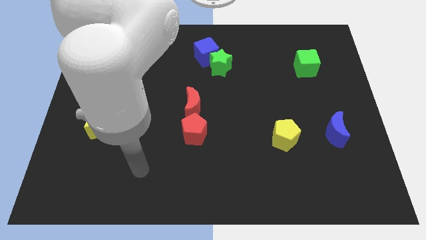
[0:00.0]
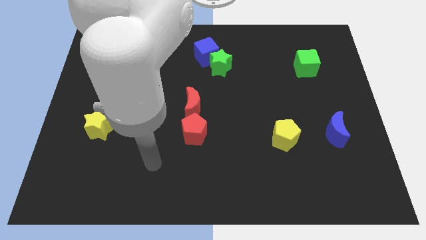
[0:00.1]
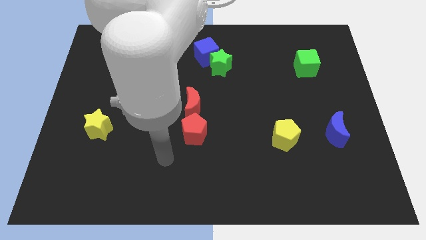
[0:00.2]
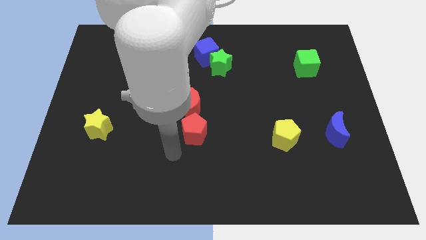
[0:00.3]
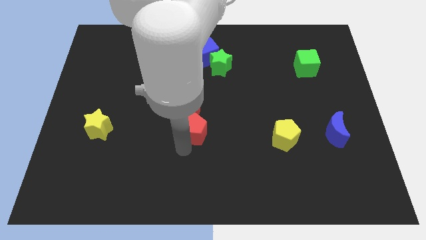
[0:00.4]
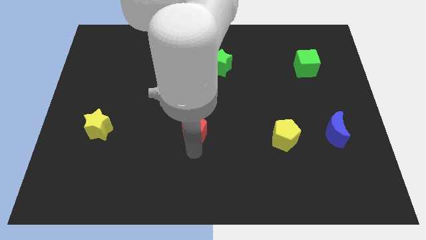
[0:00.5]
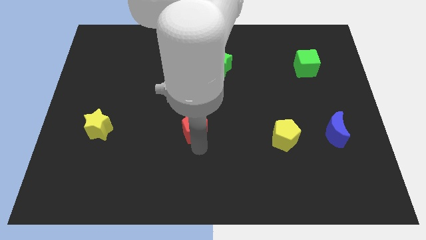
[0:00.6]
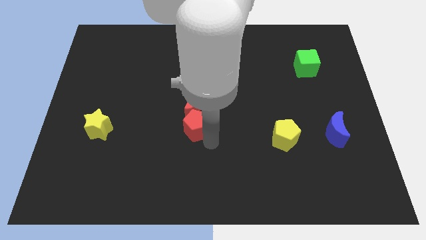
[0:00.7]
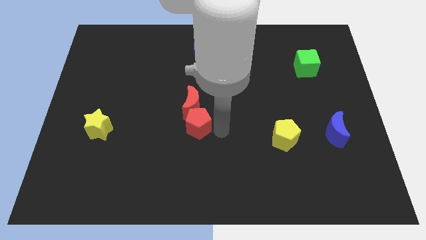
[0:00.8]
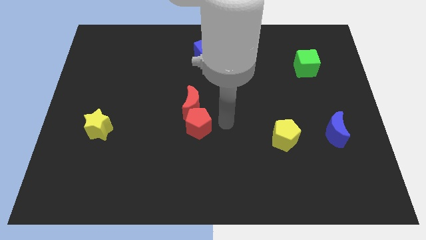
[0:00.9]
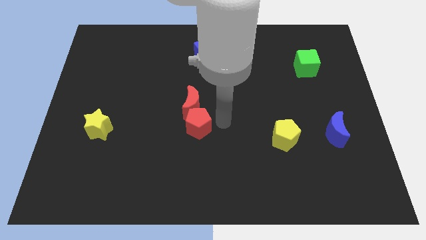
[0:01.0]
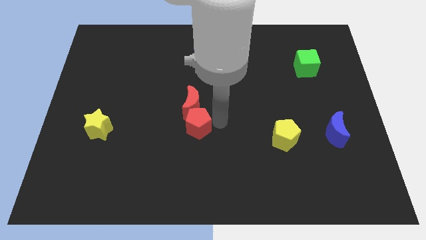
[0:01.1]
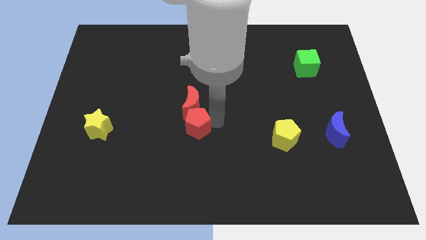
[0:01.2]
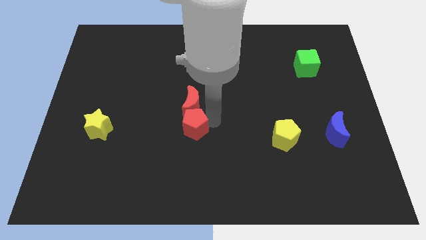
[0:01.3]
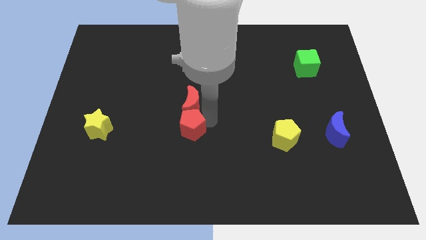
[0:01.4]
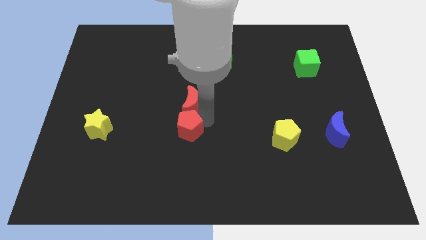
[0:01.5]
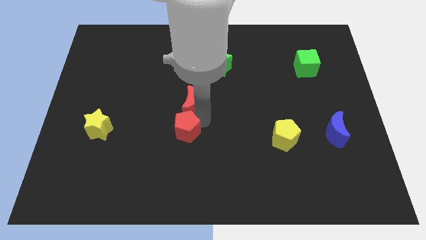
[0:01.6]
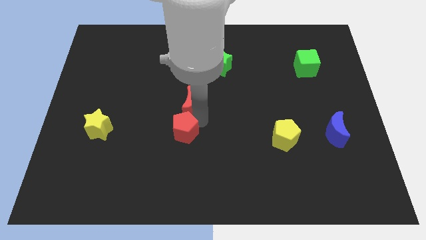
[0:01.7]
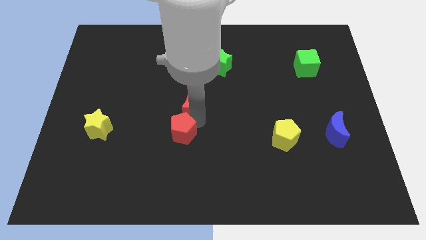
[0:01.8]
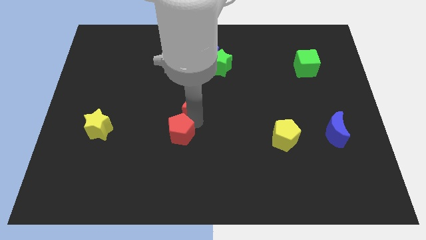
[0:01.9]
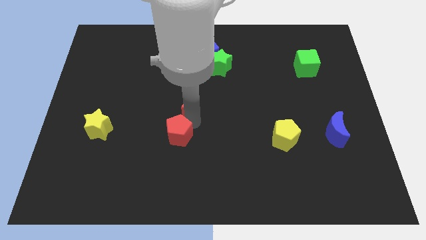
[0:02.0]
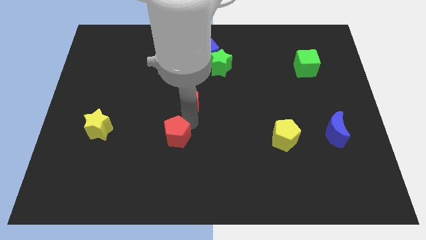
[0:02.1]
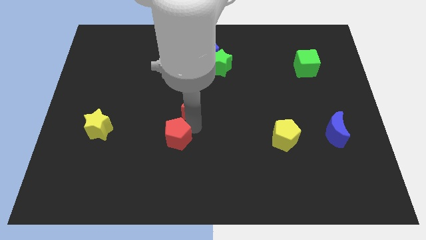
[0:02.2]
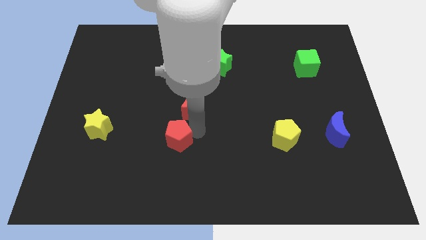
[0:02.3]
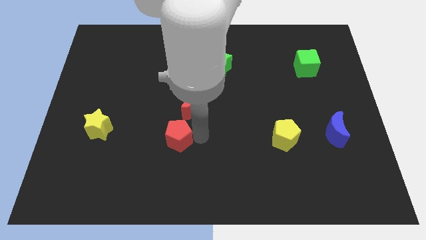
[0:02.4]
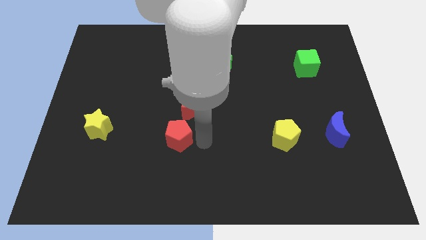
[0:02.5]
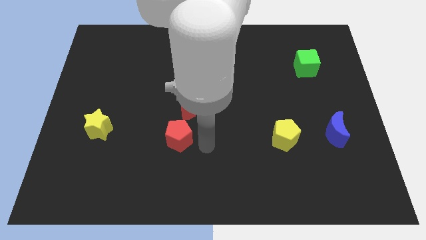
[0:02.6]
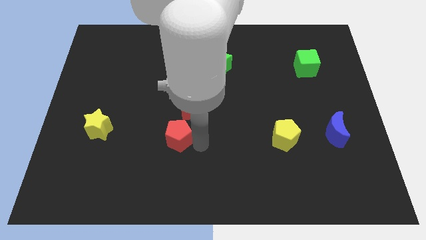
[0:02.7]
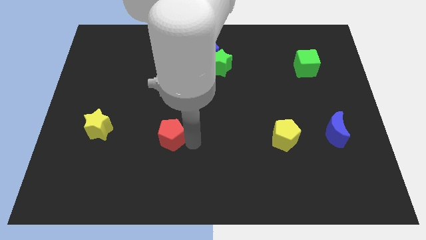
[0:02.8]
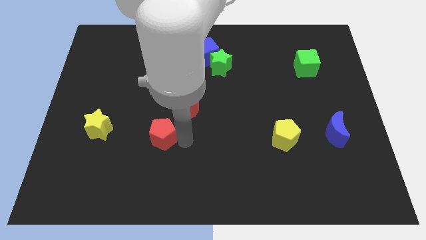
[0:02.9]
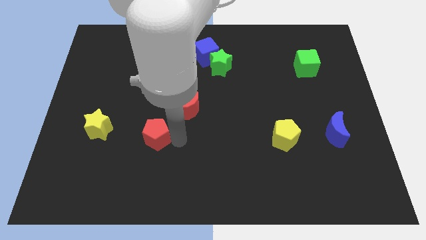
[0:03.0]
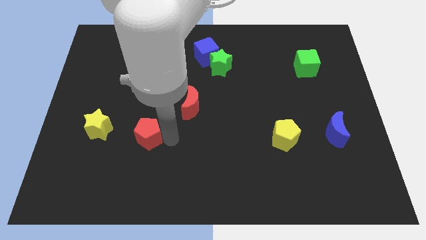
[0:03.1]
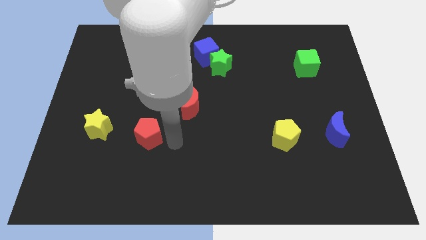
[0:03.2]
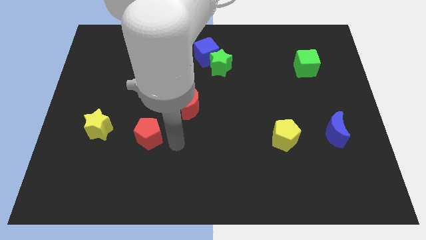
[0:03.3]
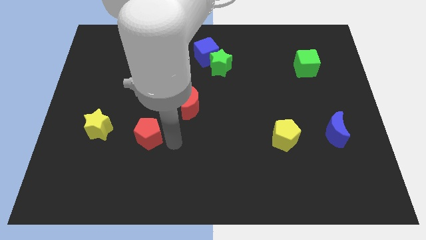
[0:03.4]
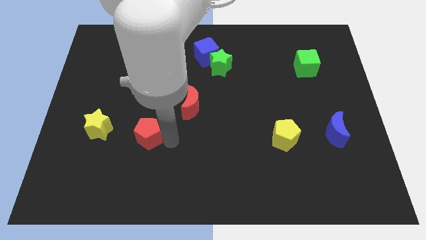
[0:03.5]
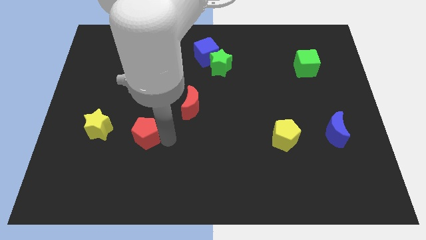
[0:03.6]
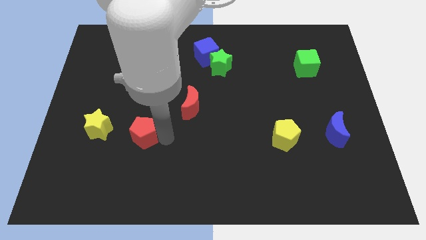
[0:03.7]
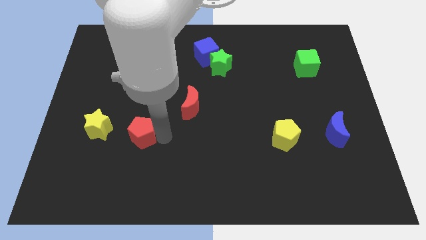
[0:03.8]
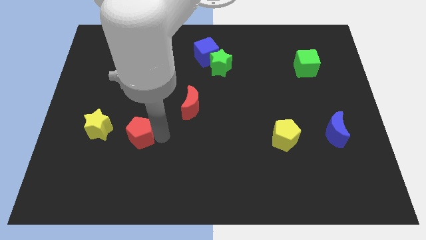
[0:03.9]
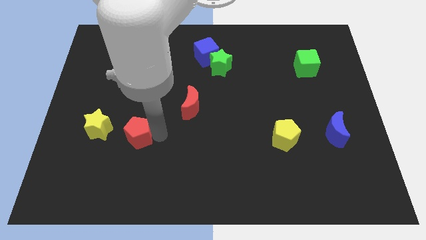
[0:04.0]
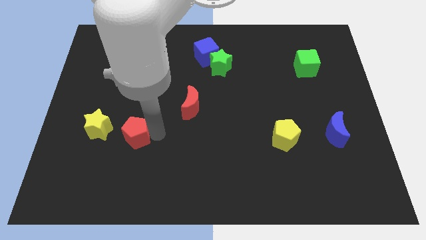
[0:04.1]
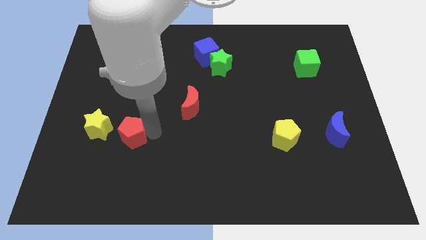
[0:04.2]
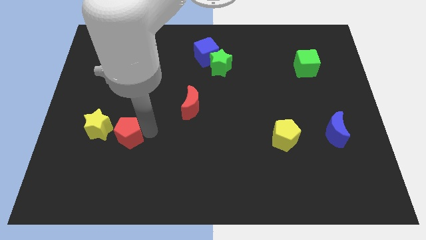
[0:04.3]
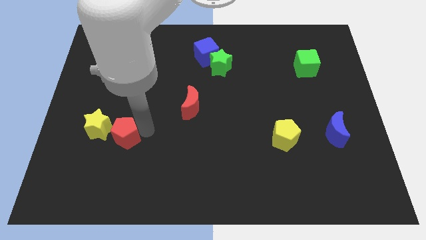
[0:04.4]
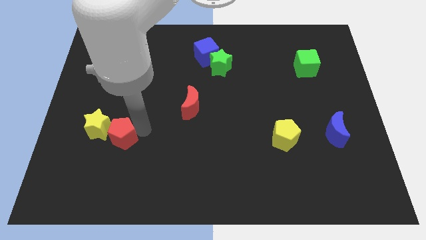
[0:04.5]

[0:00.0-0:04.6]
move the red pentagon to the yellow star

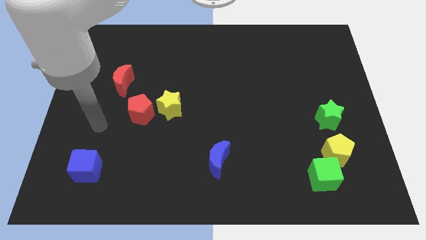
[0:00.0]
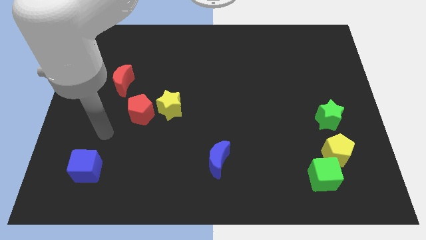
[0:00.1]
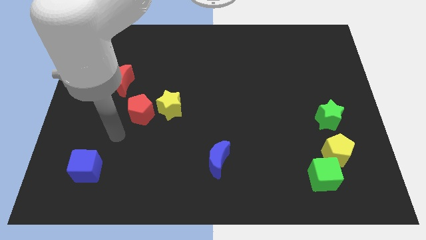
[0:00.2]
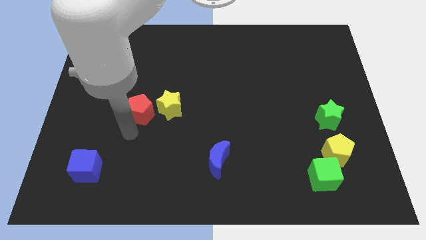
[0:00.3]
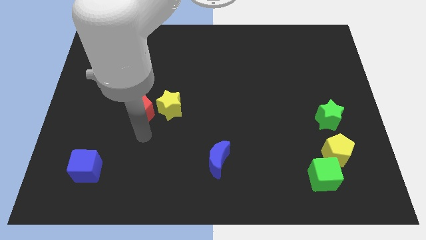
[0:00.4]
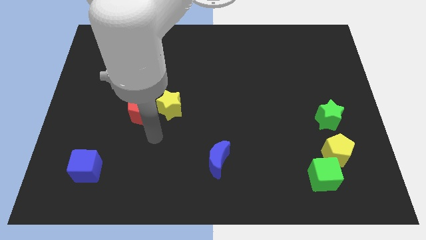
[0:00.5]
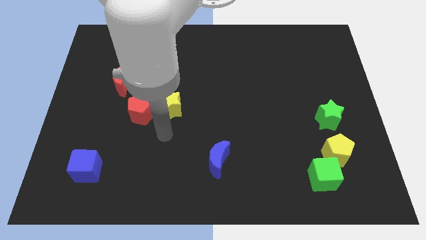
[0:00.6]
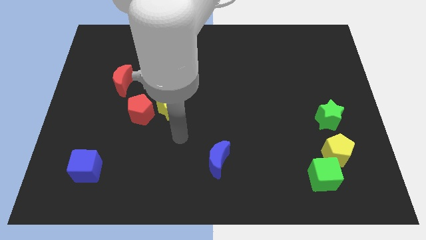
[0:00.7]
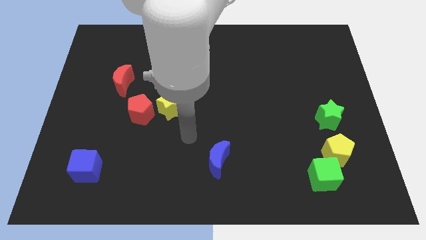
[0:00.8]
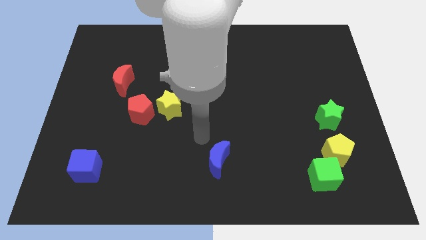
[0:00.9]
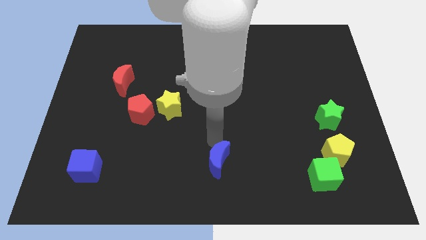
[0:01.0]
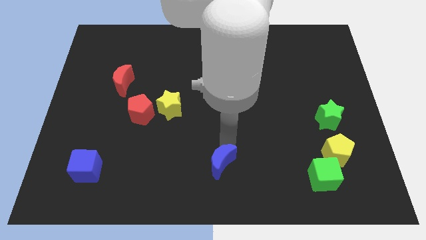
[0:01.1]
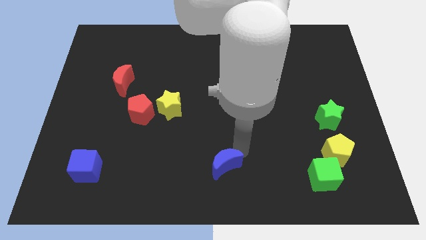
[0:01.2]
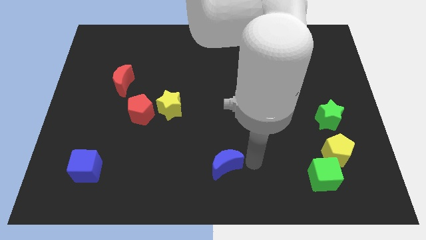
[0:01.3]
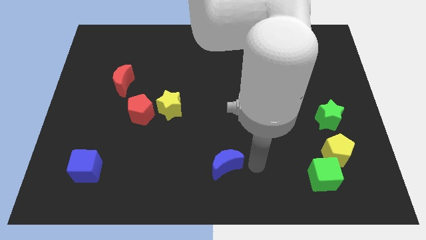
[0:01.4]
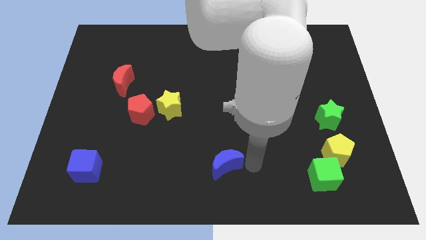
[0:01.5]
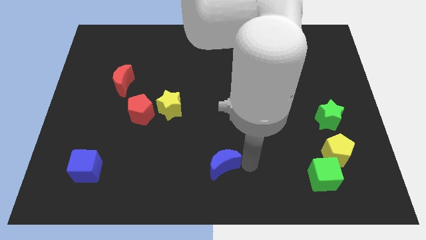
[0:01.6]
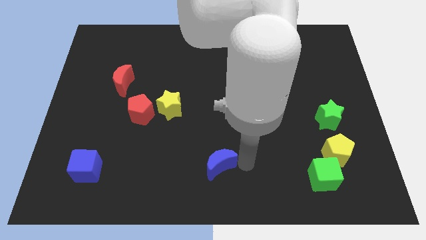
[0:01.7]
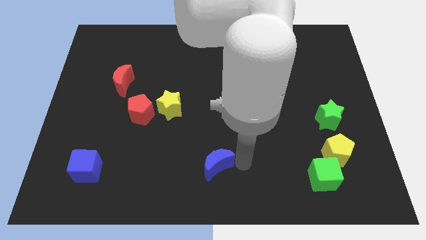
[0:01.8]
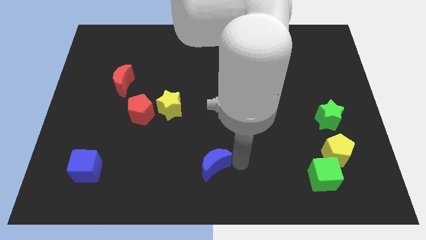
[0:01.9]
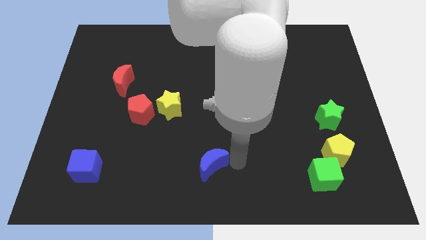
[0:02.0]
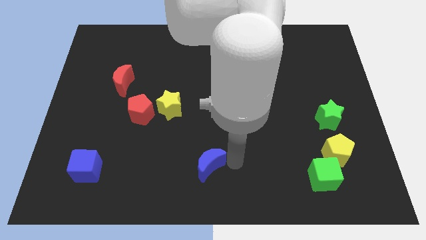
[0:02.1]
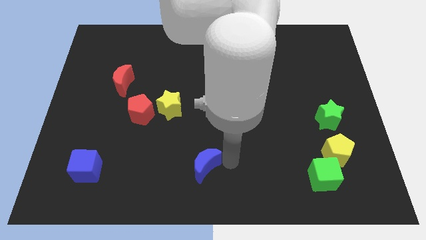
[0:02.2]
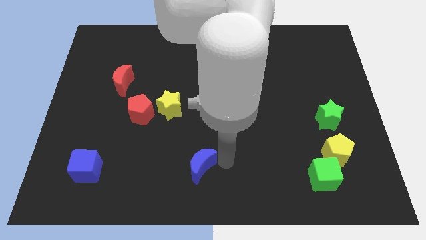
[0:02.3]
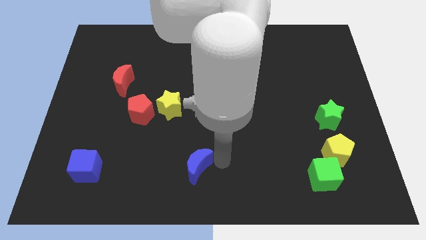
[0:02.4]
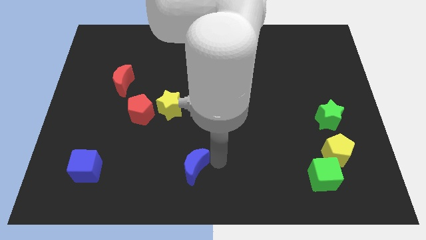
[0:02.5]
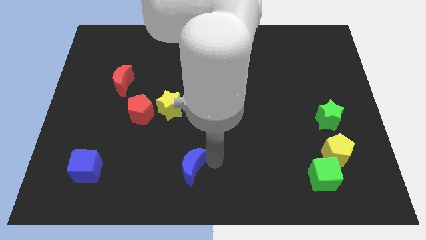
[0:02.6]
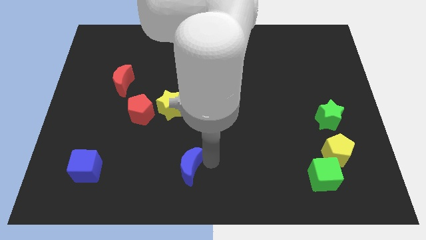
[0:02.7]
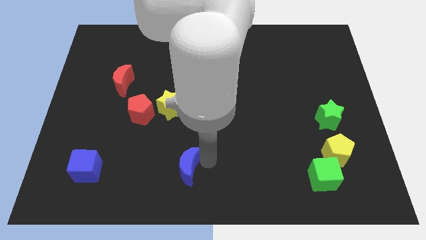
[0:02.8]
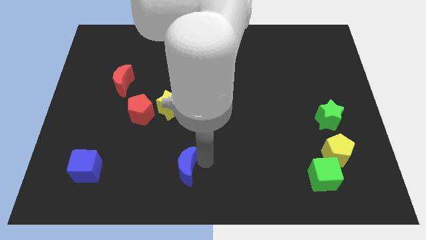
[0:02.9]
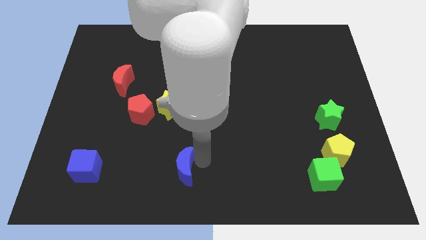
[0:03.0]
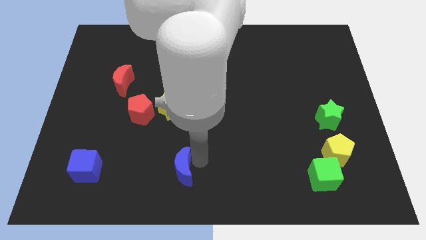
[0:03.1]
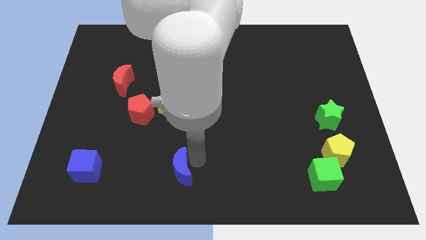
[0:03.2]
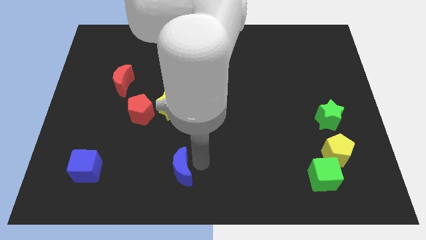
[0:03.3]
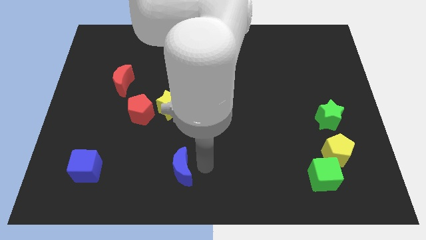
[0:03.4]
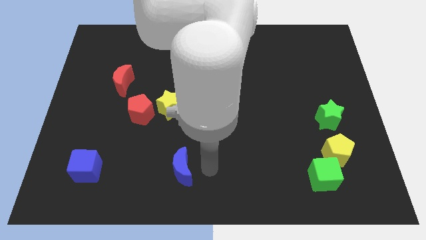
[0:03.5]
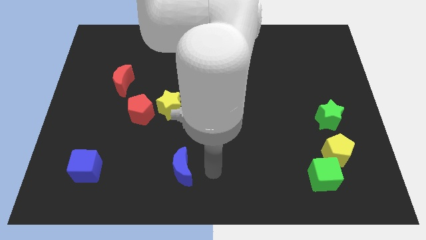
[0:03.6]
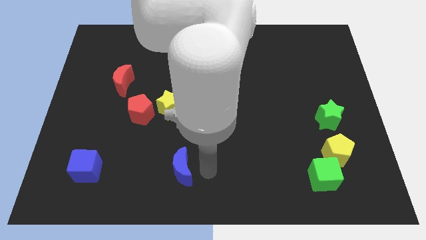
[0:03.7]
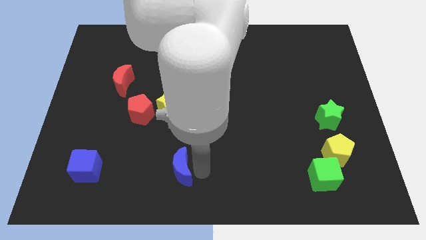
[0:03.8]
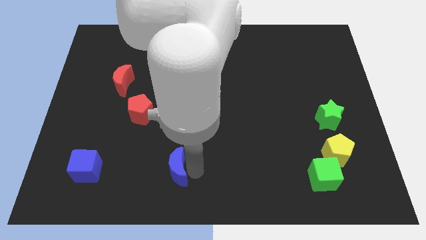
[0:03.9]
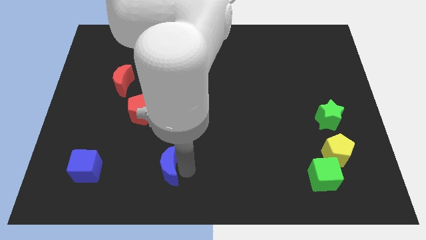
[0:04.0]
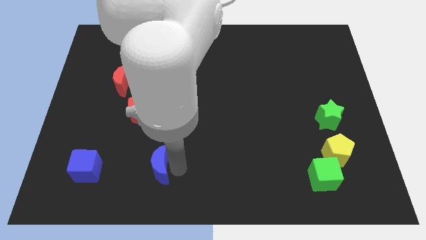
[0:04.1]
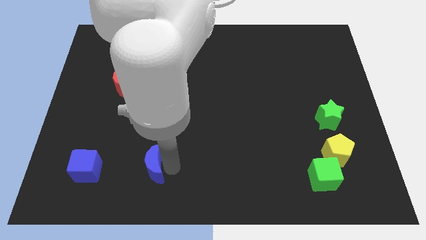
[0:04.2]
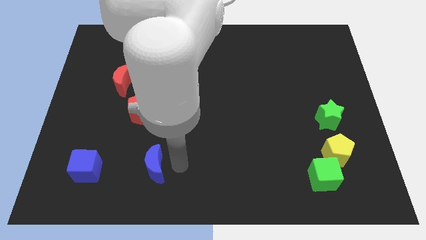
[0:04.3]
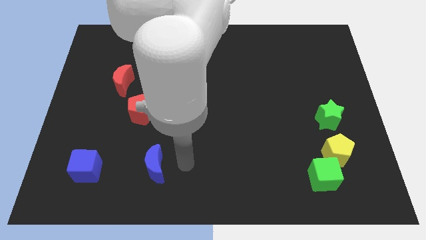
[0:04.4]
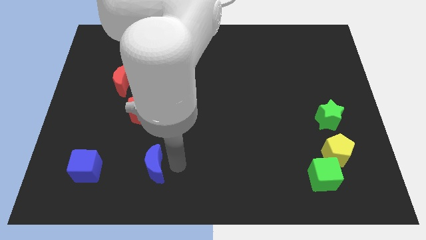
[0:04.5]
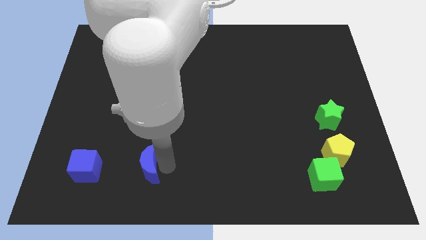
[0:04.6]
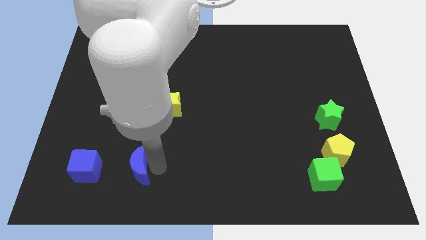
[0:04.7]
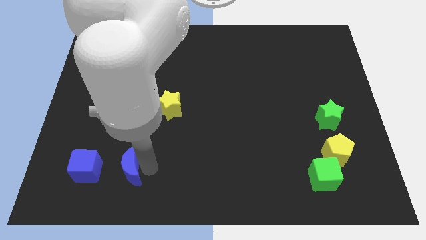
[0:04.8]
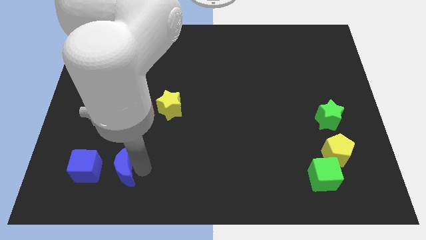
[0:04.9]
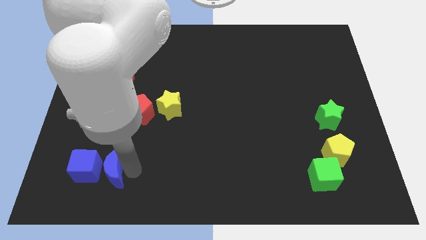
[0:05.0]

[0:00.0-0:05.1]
put the blue moon next to the blue cube
